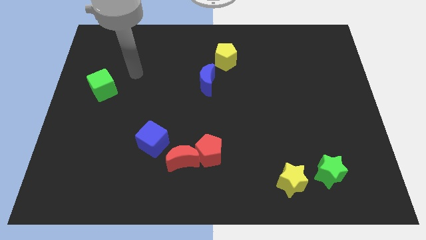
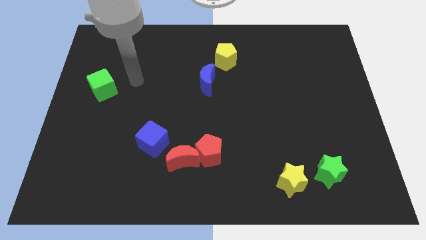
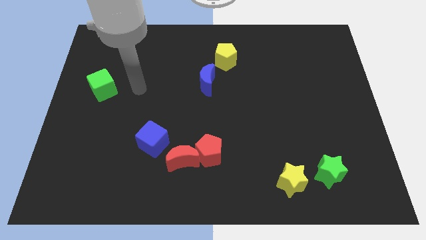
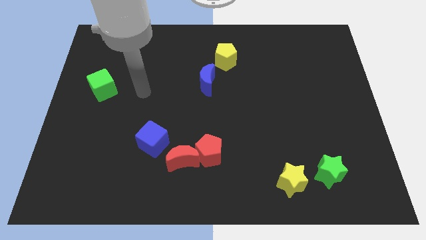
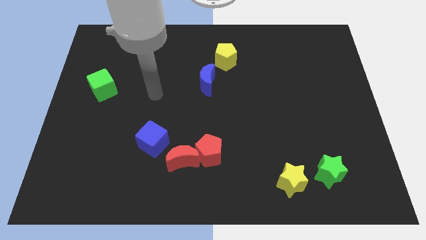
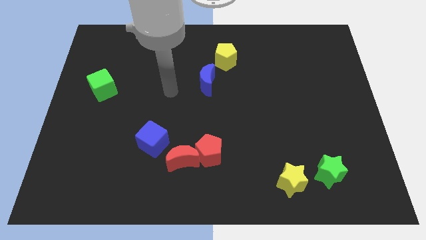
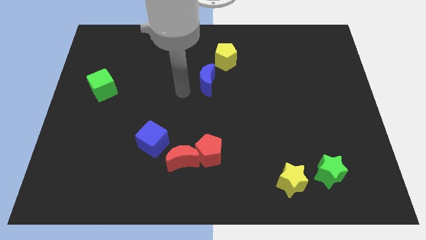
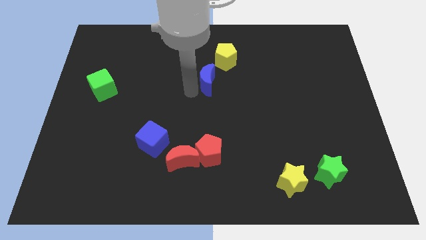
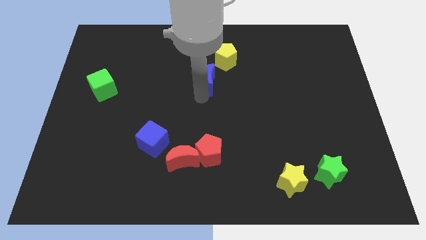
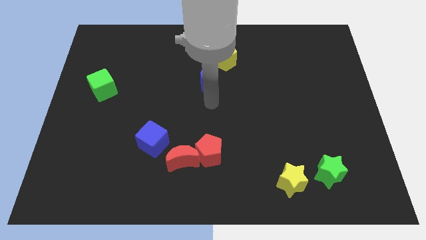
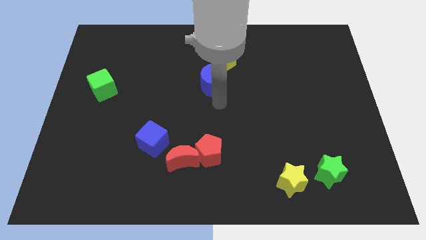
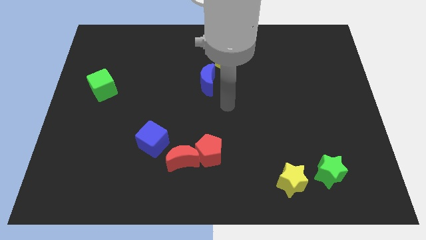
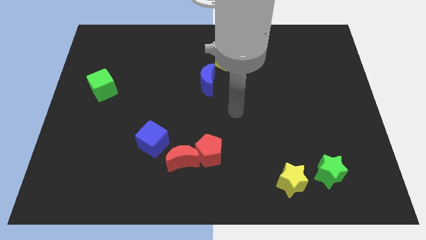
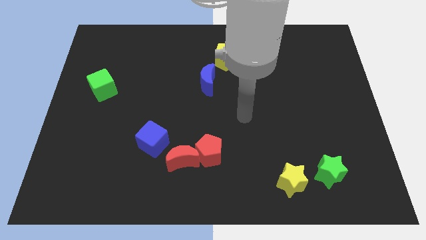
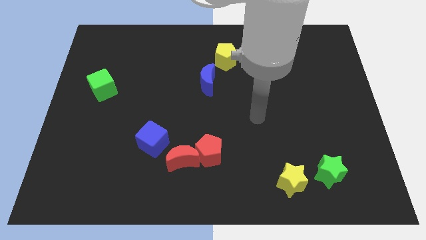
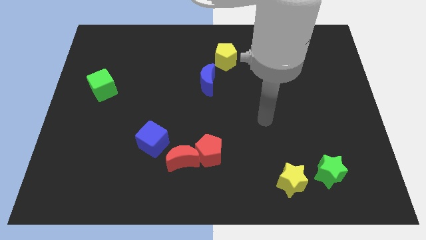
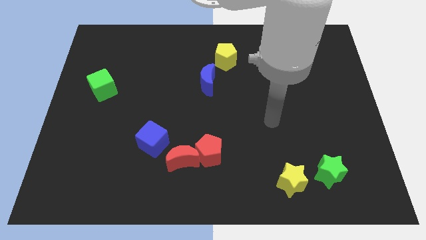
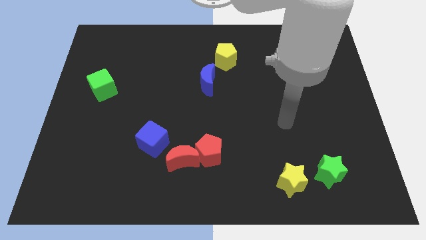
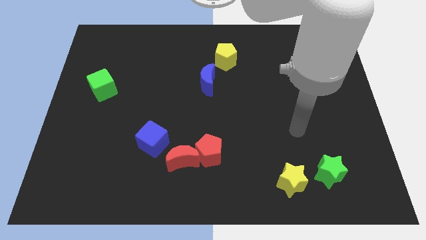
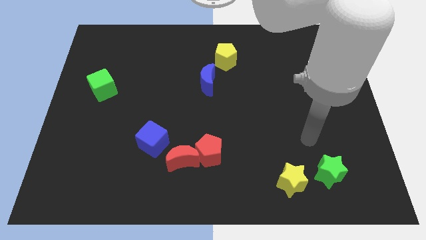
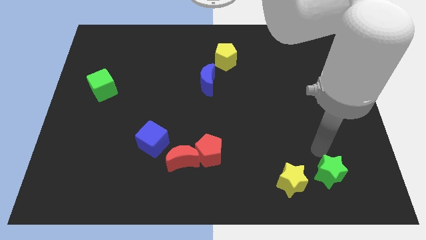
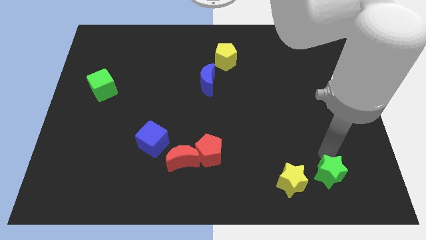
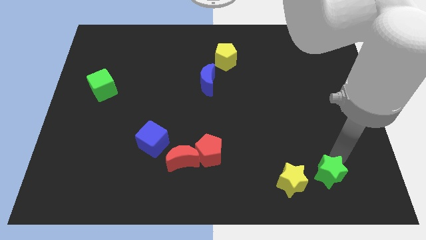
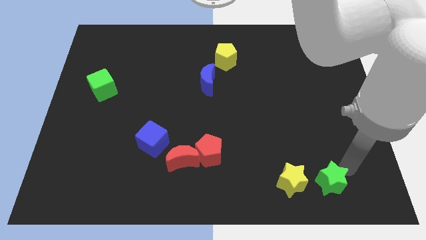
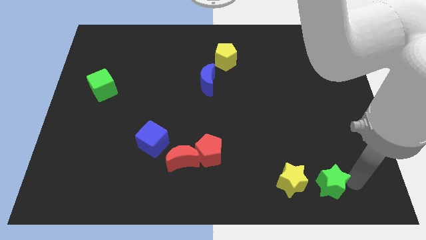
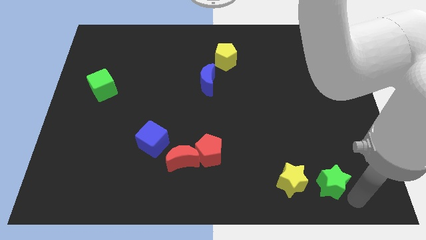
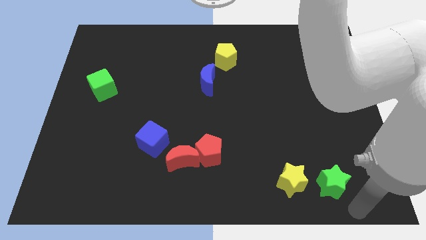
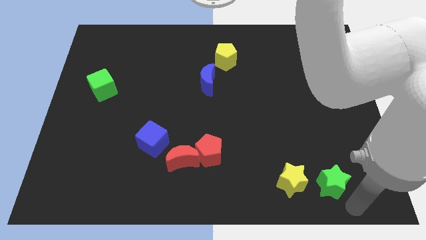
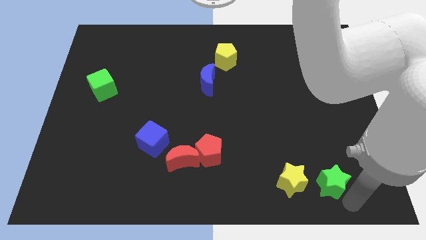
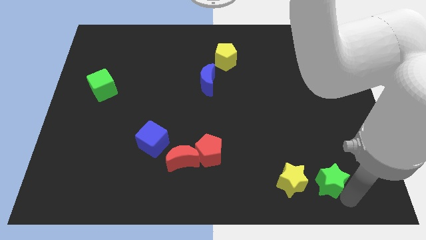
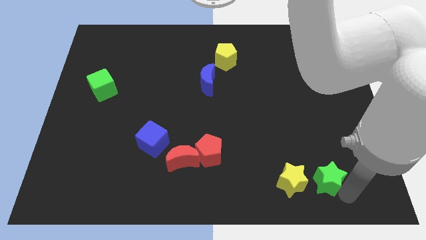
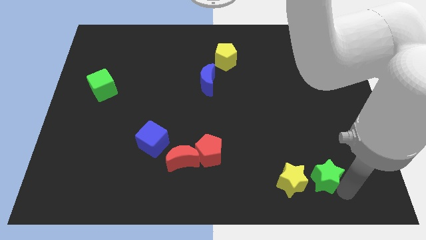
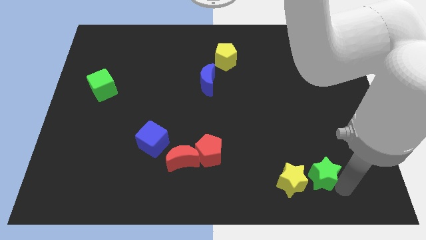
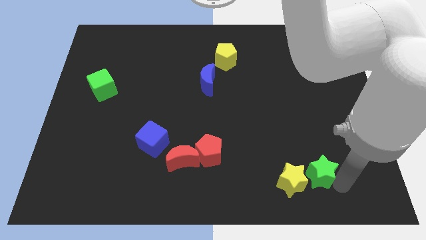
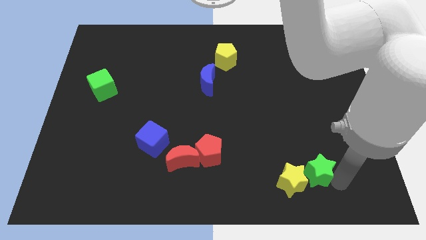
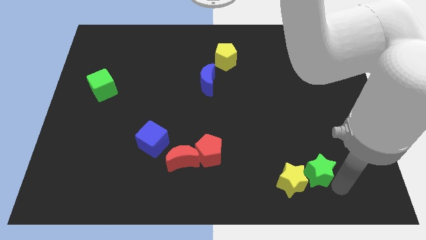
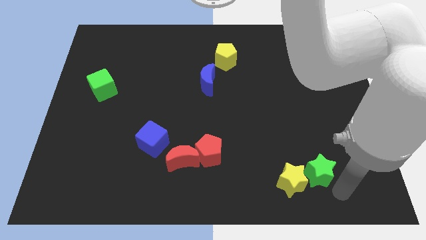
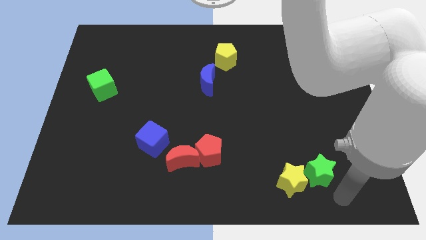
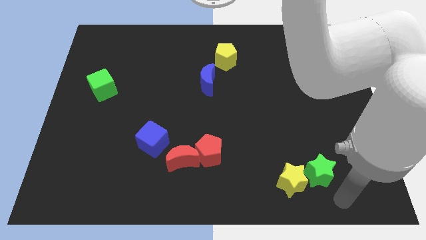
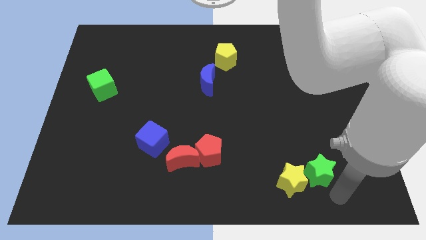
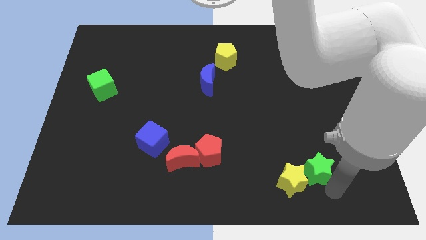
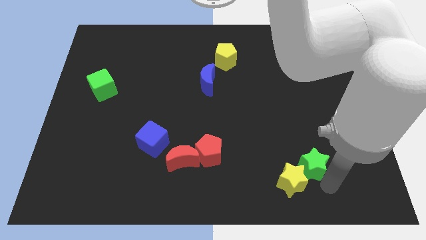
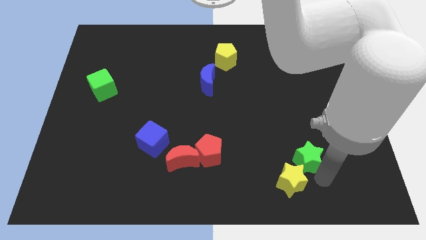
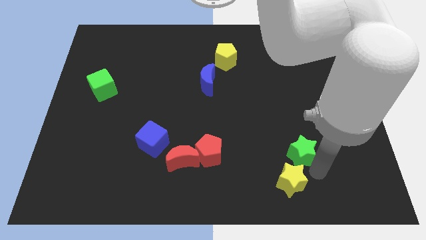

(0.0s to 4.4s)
slightly push the green star up and left diagonally

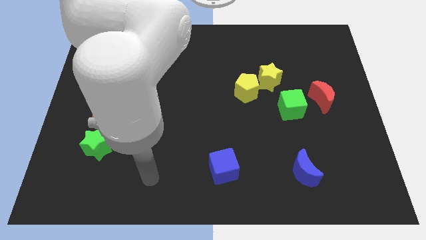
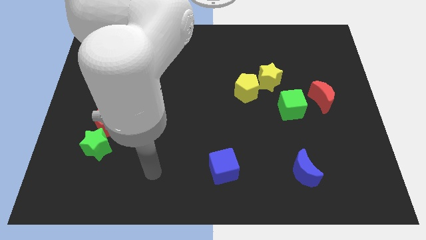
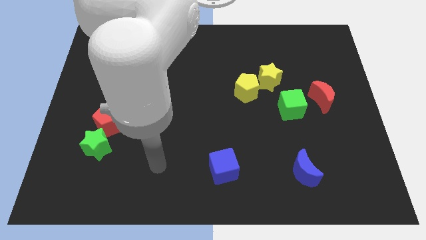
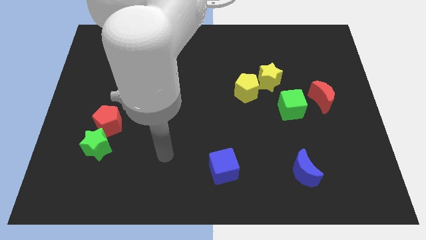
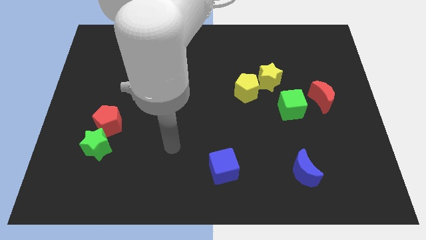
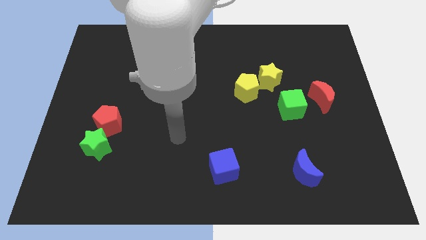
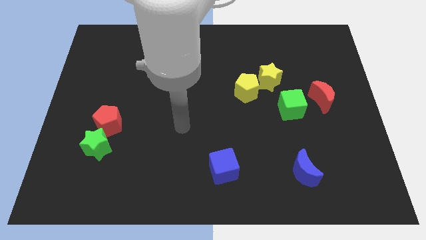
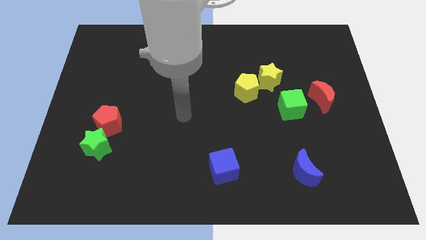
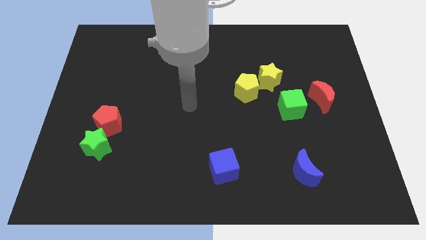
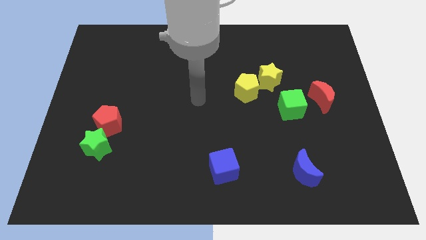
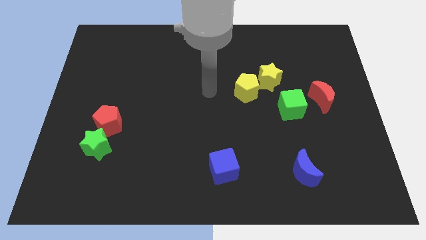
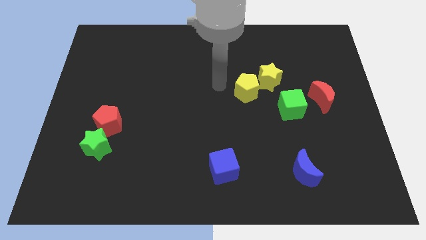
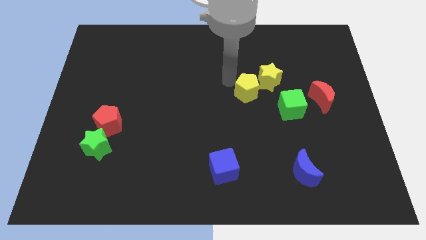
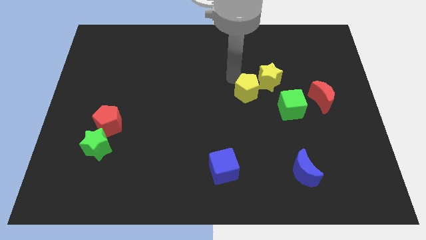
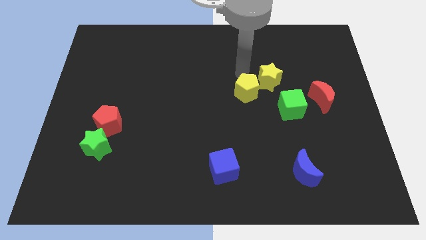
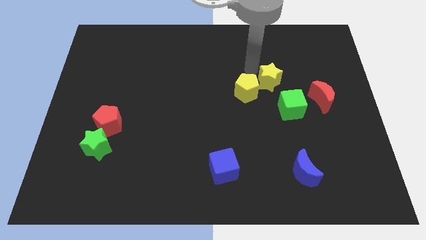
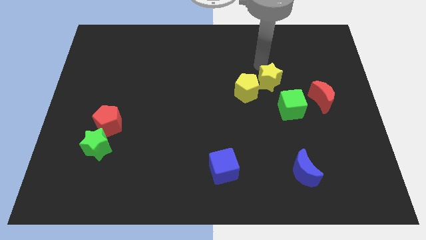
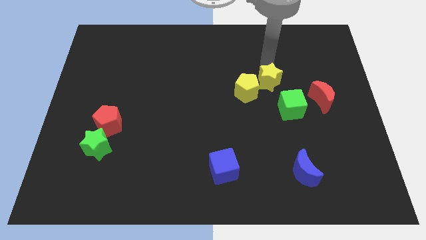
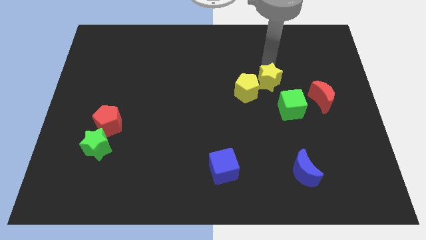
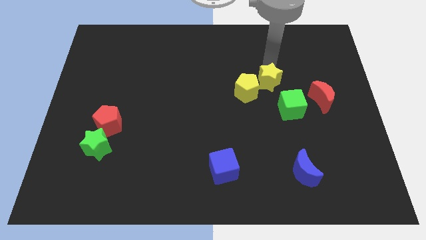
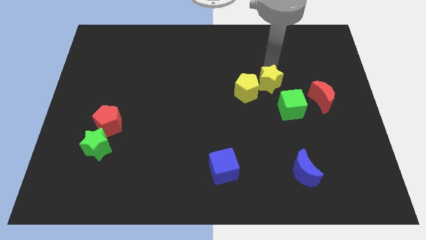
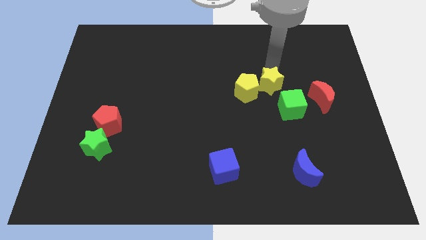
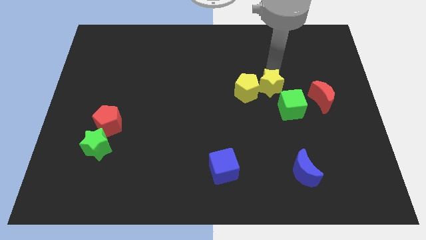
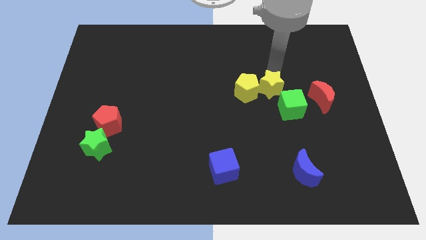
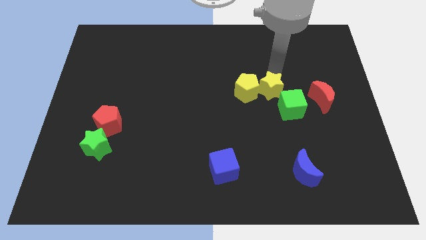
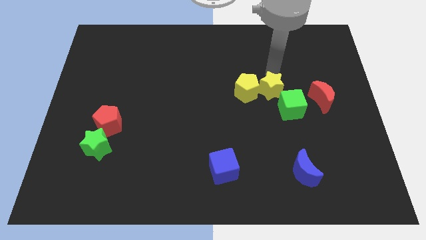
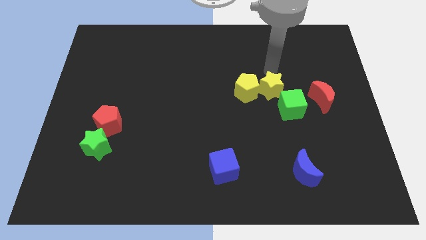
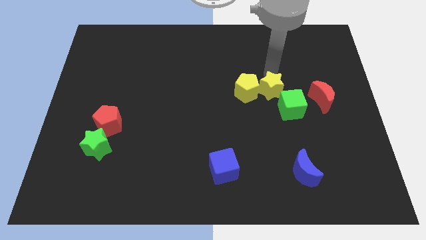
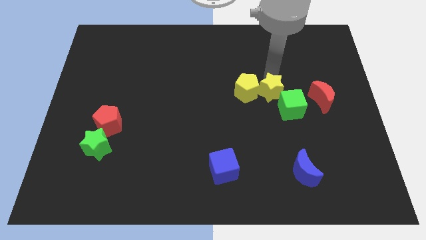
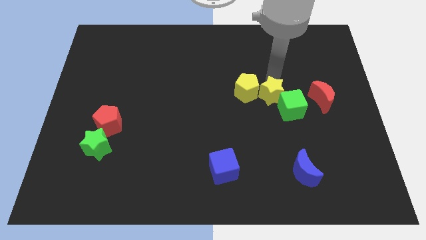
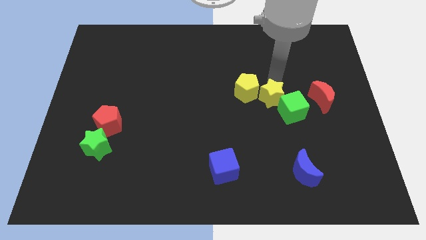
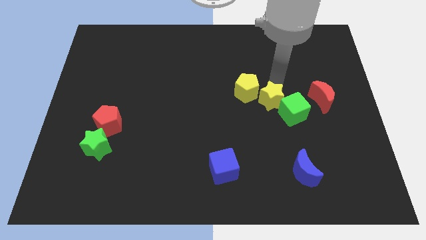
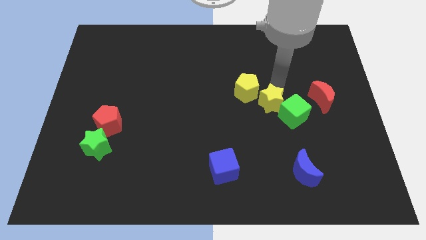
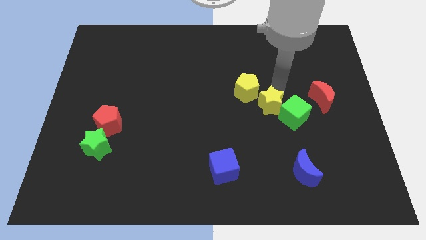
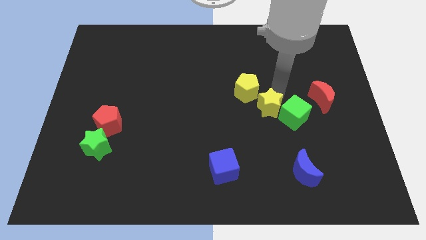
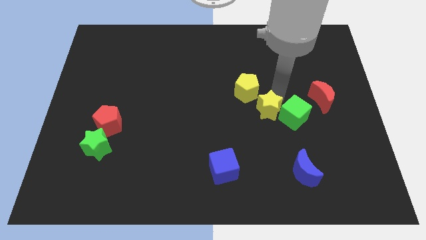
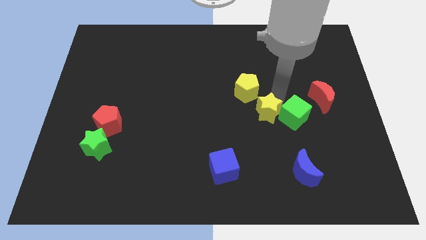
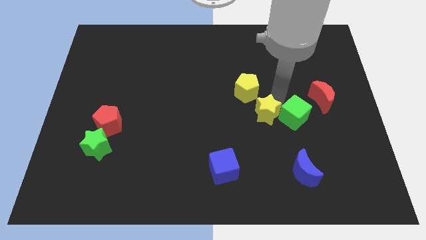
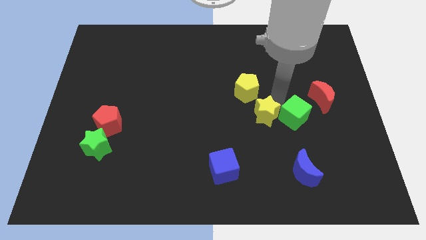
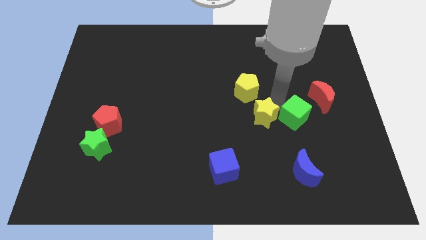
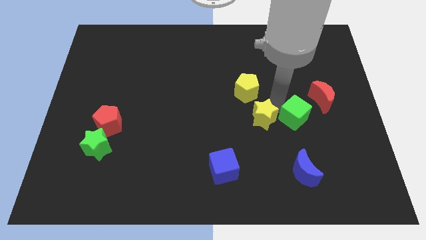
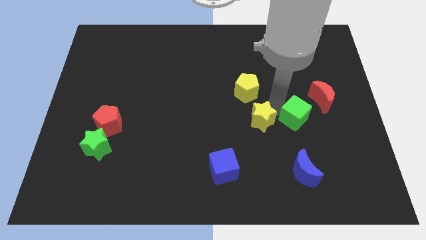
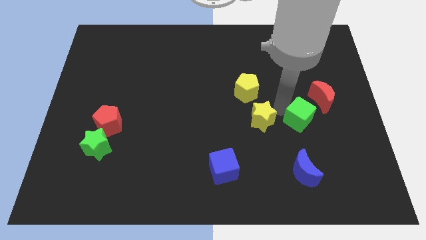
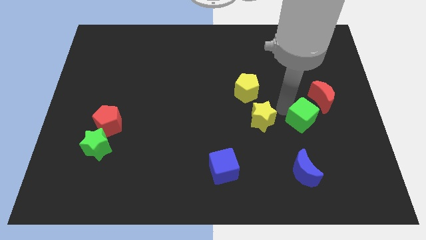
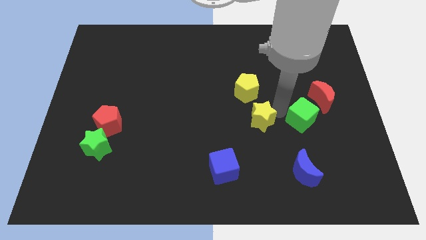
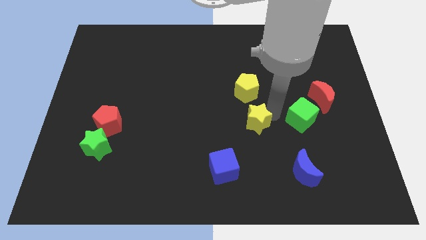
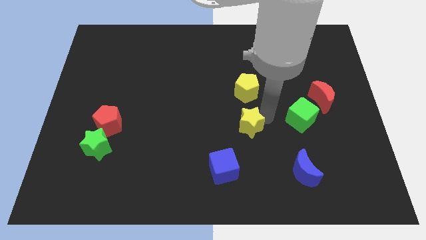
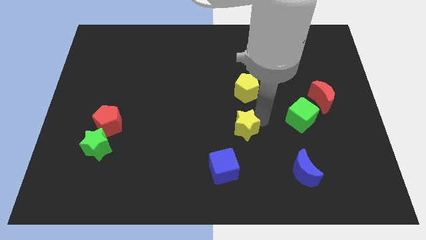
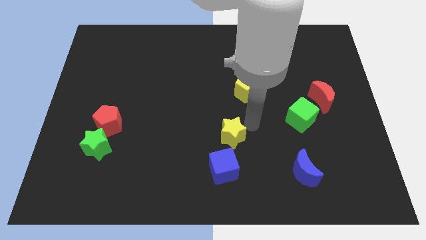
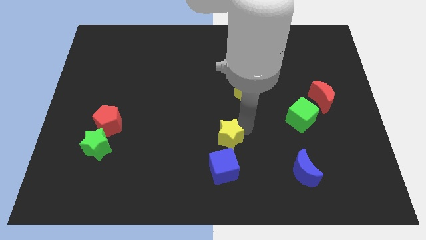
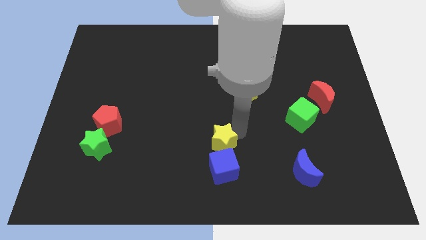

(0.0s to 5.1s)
move the yellow star downwards and left diagonally
